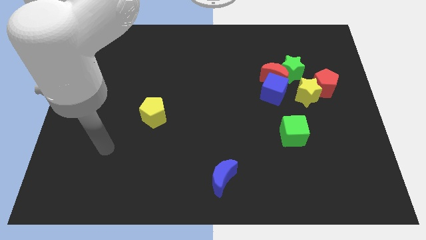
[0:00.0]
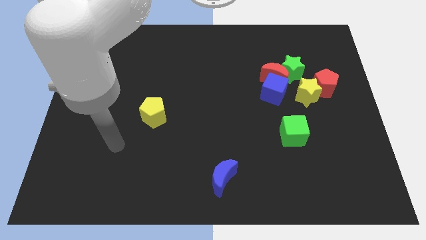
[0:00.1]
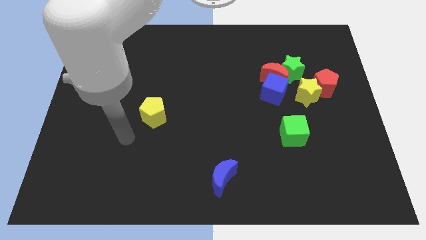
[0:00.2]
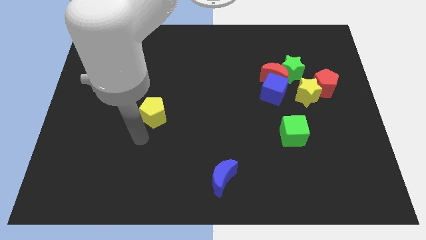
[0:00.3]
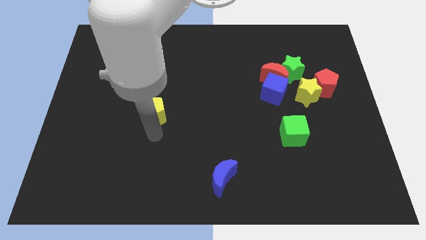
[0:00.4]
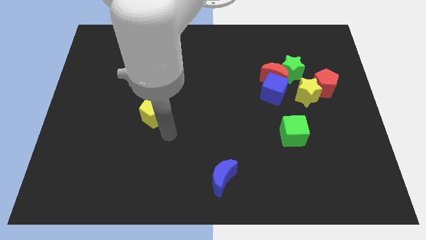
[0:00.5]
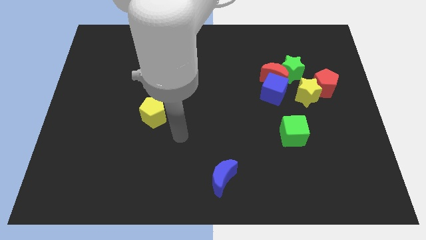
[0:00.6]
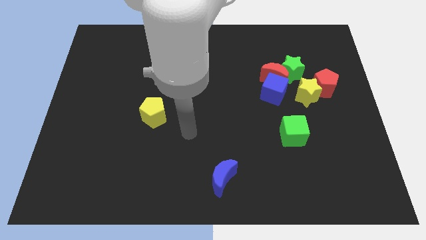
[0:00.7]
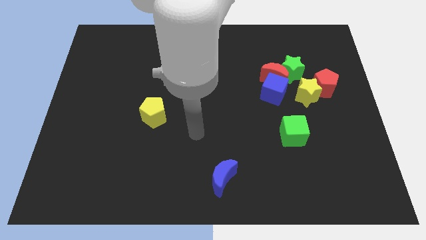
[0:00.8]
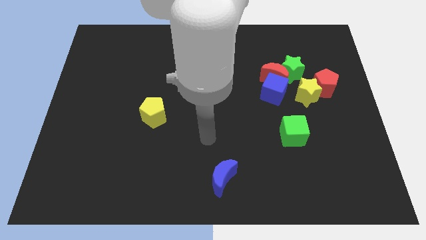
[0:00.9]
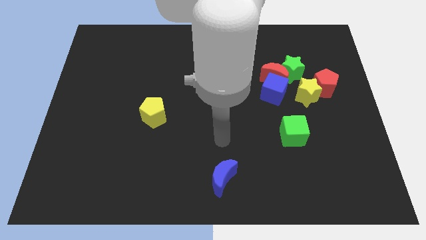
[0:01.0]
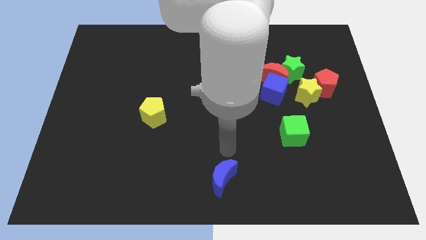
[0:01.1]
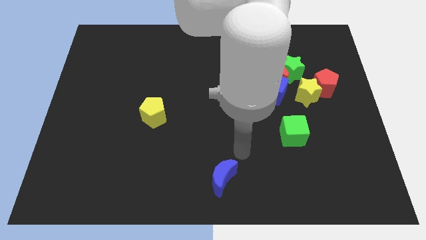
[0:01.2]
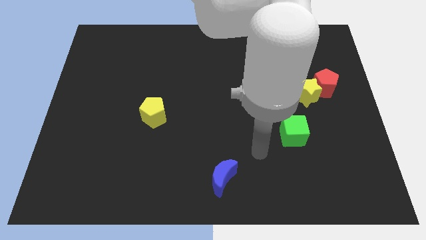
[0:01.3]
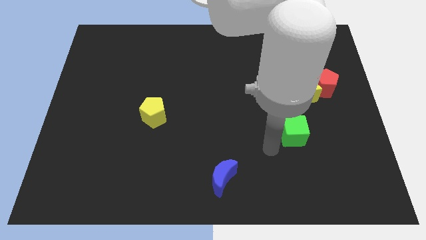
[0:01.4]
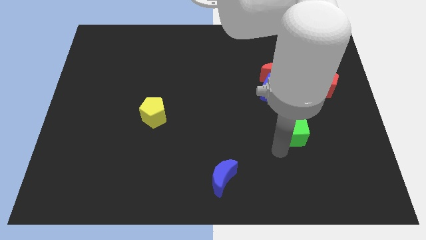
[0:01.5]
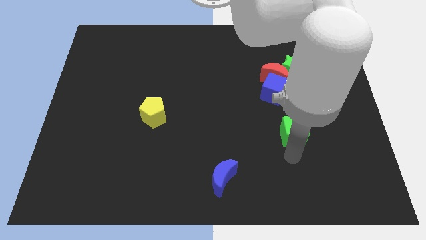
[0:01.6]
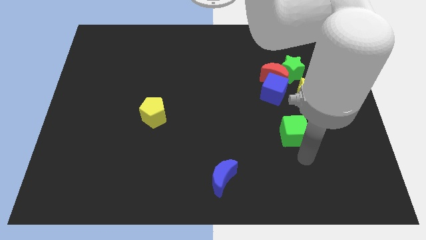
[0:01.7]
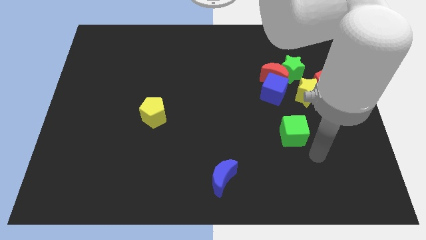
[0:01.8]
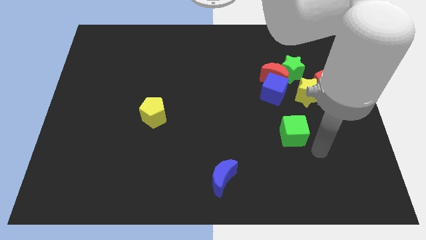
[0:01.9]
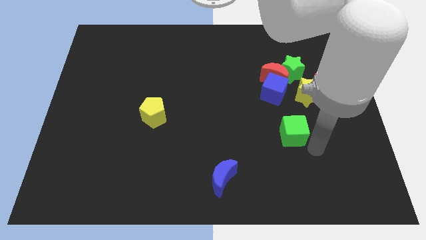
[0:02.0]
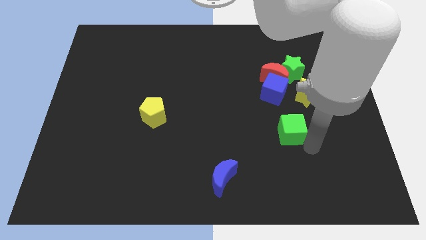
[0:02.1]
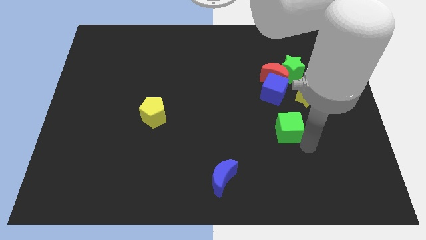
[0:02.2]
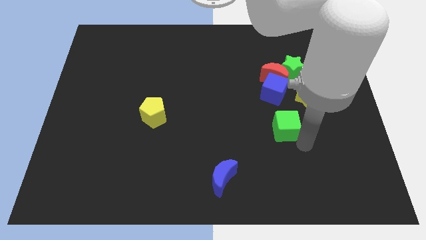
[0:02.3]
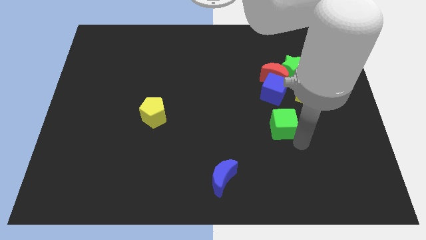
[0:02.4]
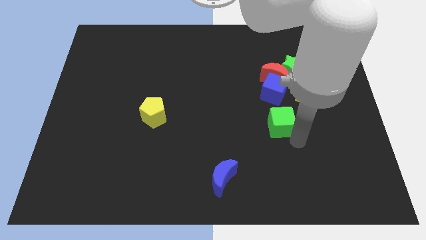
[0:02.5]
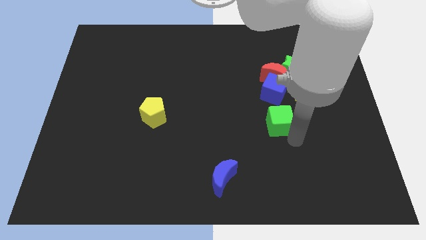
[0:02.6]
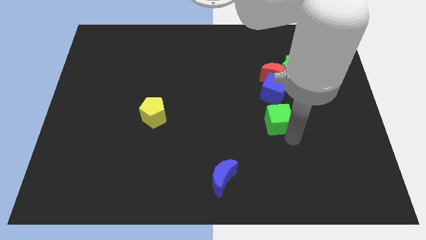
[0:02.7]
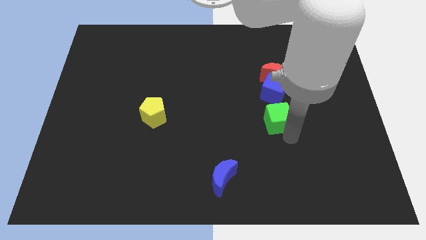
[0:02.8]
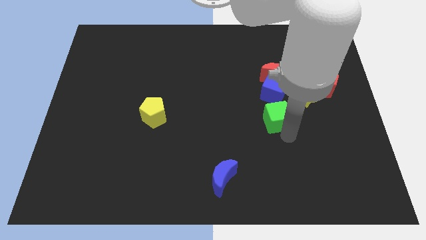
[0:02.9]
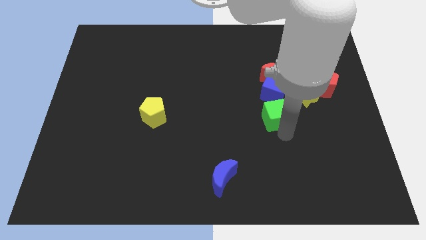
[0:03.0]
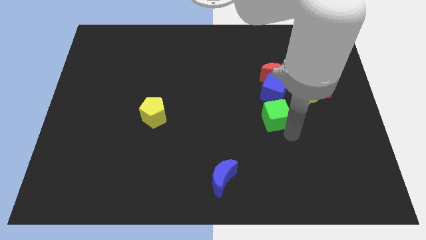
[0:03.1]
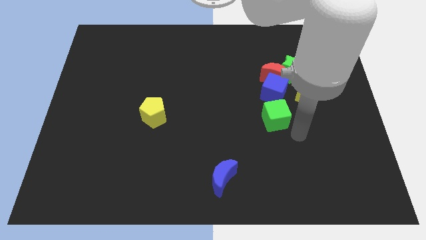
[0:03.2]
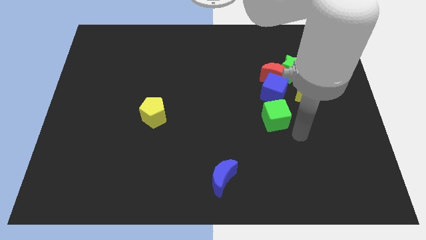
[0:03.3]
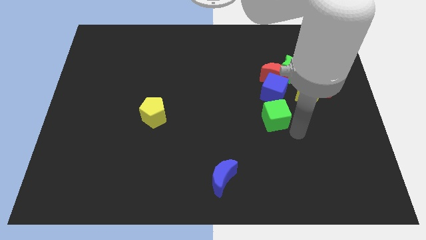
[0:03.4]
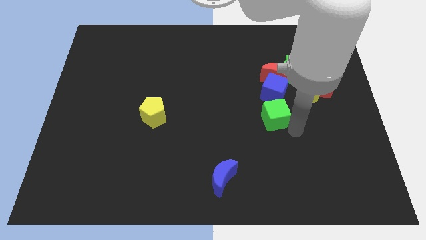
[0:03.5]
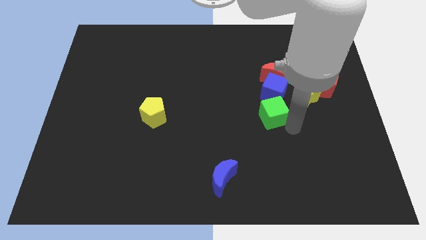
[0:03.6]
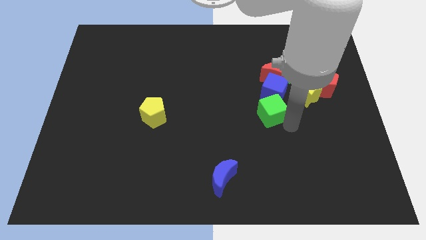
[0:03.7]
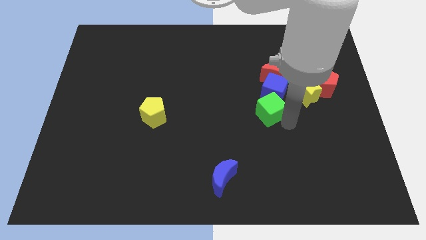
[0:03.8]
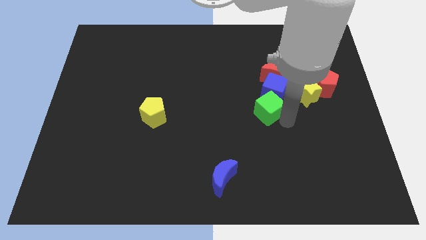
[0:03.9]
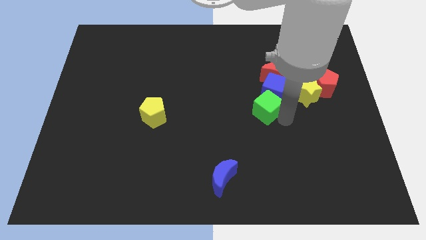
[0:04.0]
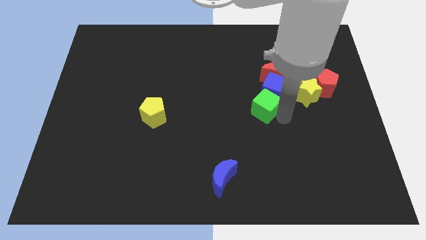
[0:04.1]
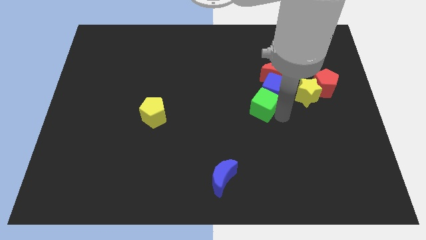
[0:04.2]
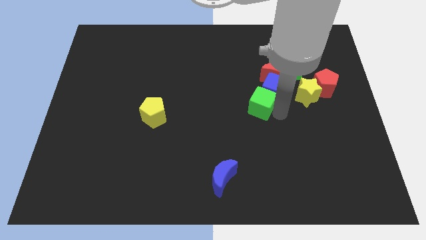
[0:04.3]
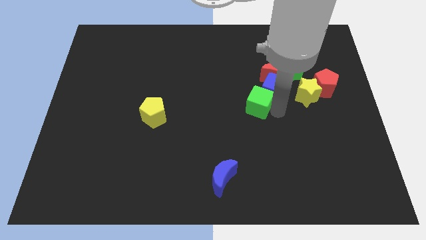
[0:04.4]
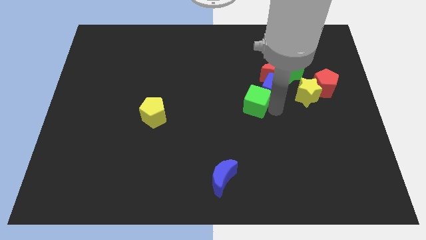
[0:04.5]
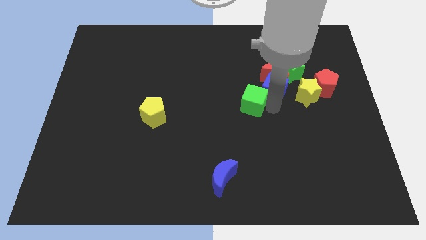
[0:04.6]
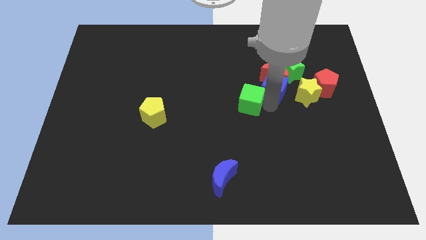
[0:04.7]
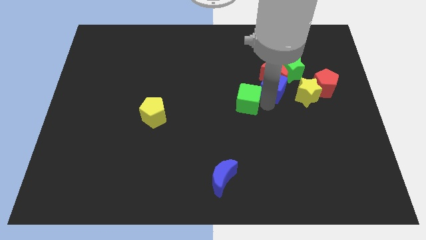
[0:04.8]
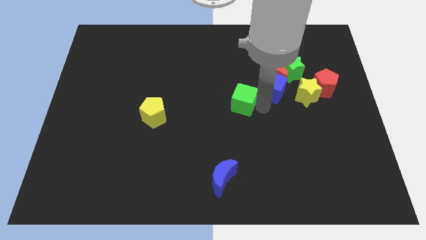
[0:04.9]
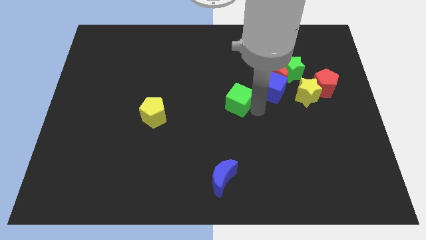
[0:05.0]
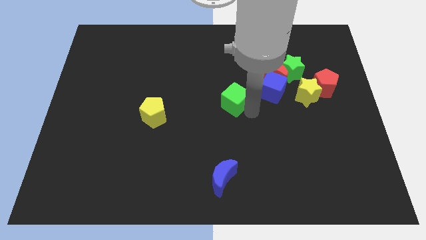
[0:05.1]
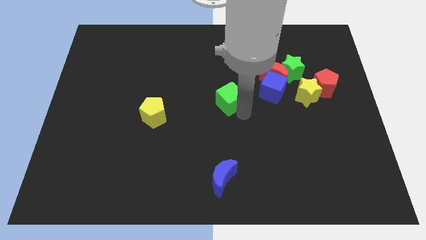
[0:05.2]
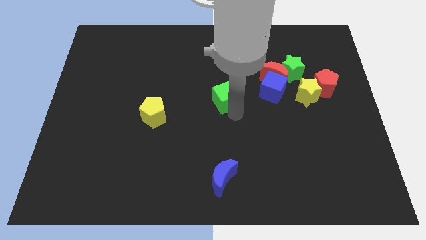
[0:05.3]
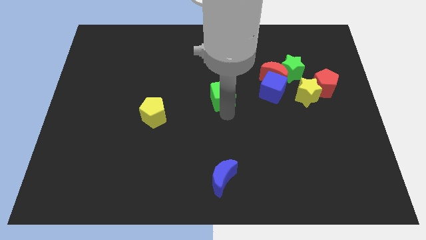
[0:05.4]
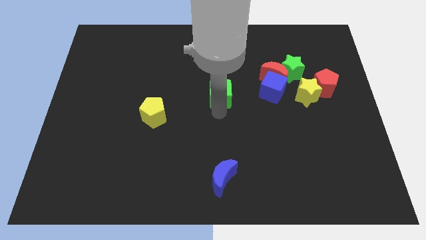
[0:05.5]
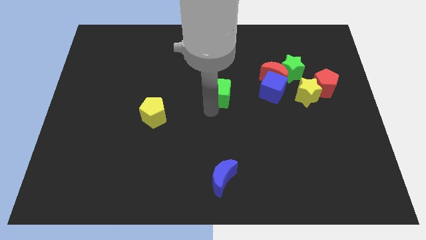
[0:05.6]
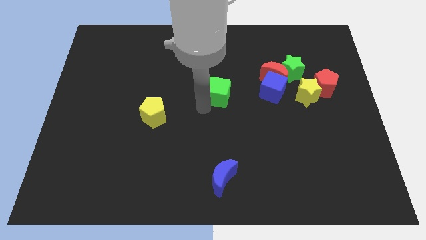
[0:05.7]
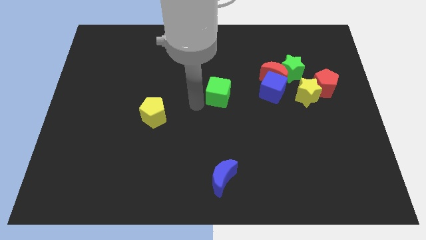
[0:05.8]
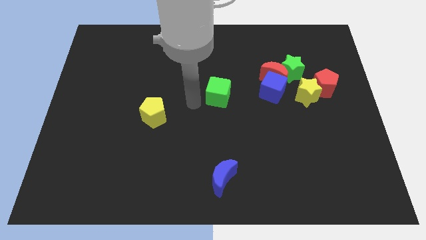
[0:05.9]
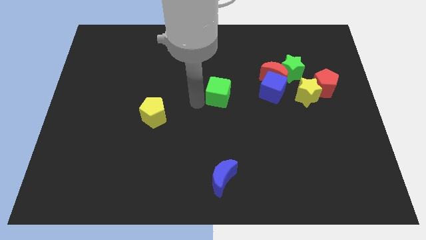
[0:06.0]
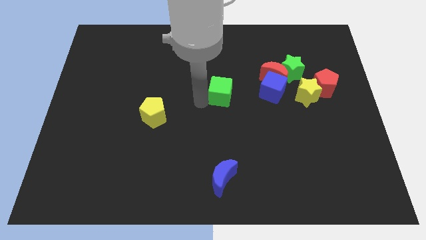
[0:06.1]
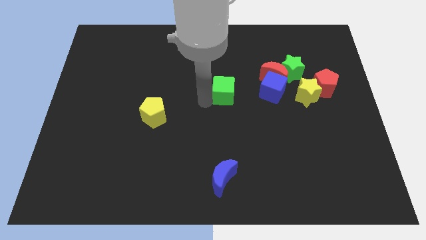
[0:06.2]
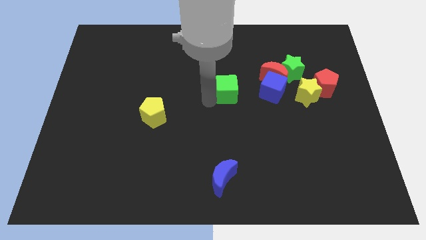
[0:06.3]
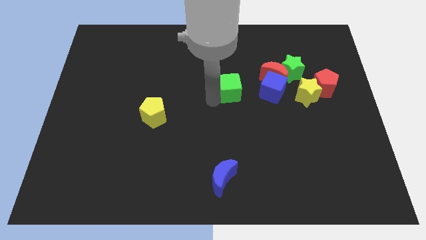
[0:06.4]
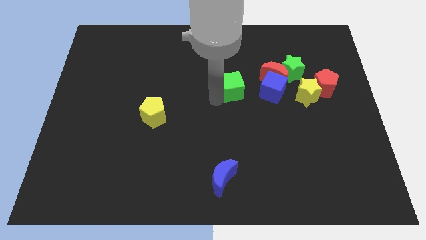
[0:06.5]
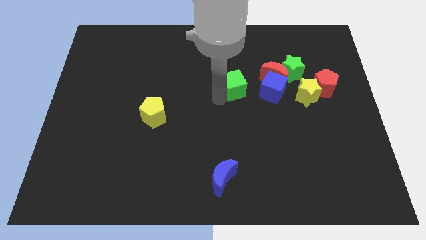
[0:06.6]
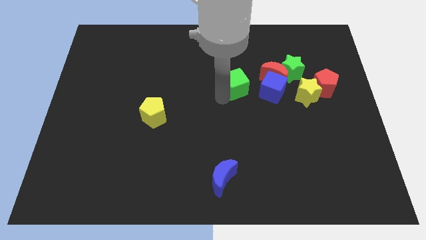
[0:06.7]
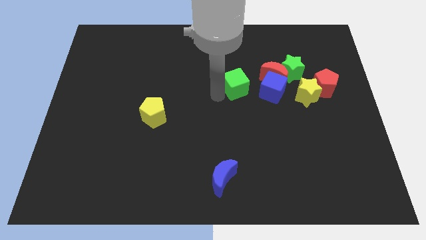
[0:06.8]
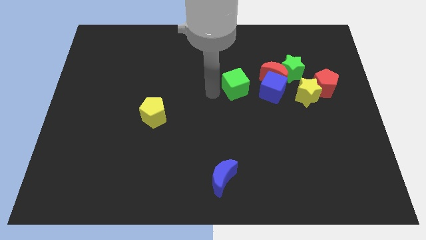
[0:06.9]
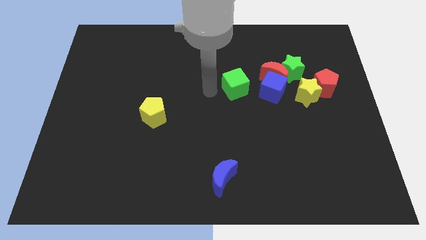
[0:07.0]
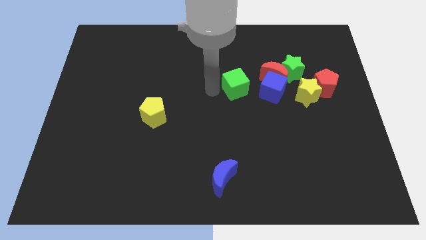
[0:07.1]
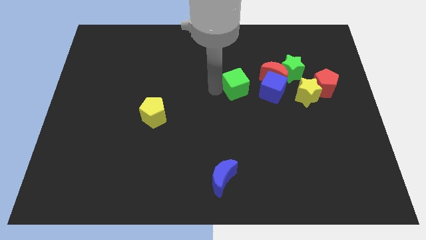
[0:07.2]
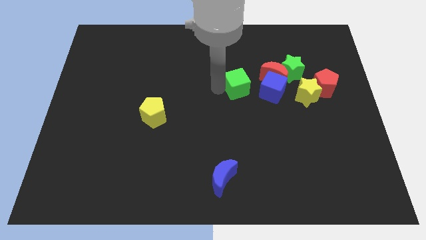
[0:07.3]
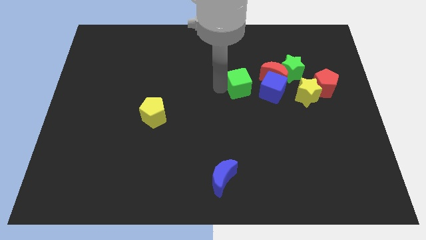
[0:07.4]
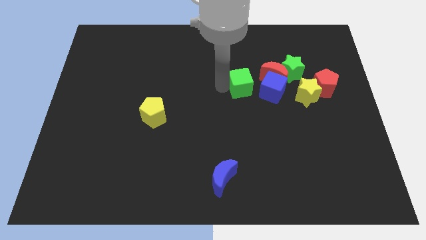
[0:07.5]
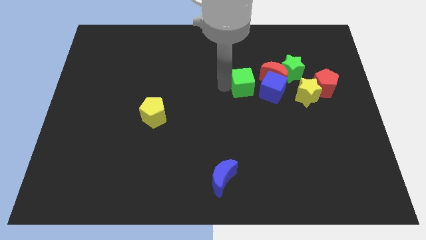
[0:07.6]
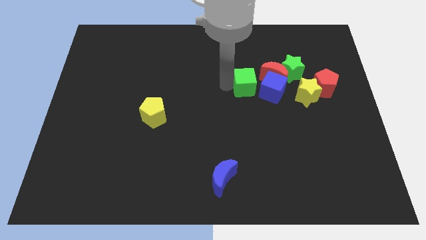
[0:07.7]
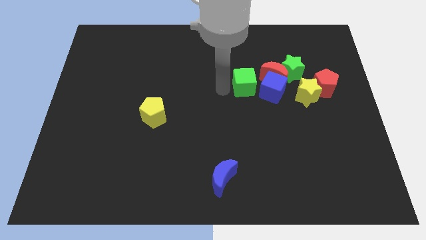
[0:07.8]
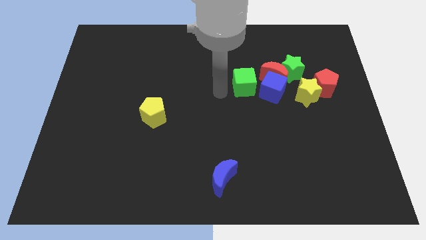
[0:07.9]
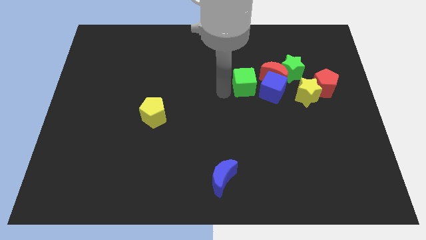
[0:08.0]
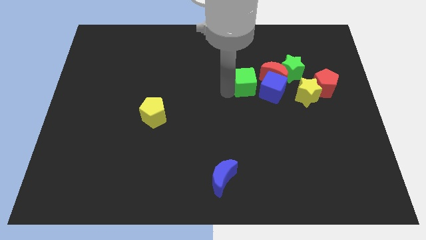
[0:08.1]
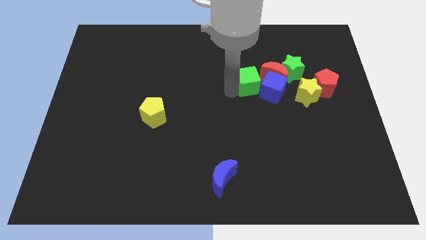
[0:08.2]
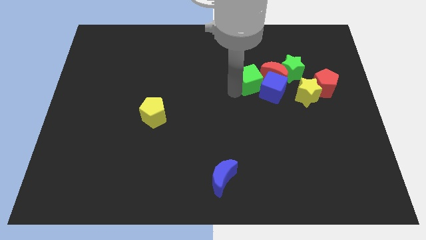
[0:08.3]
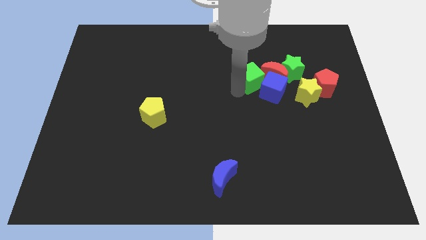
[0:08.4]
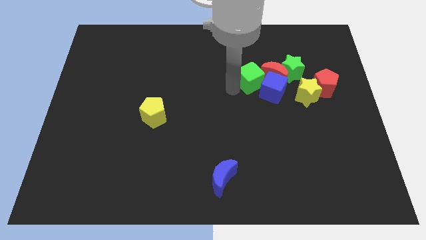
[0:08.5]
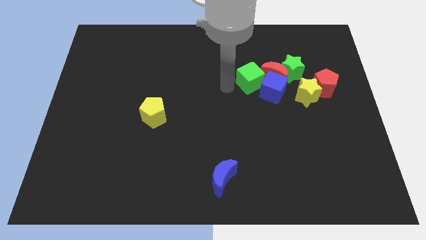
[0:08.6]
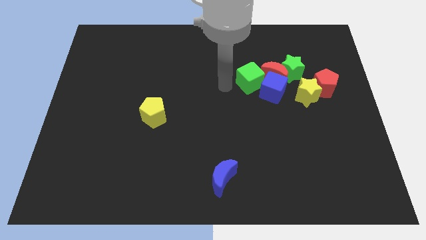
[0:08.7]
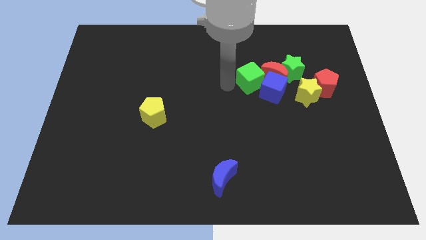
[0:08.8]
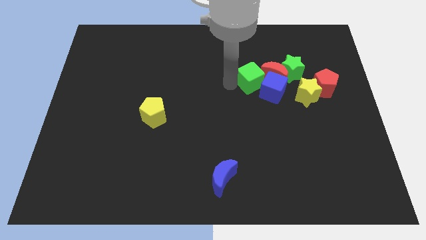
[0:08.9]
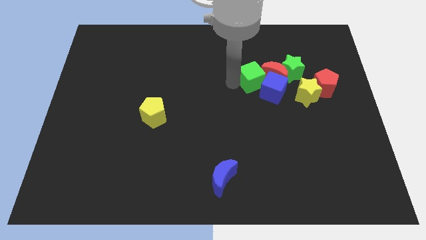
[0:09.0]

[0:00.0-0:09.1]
put the green cube to the red moon
